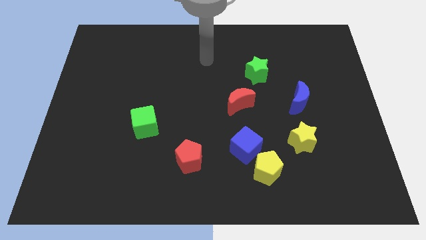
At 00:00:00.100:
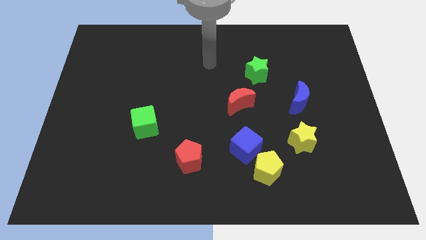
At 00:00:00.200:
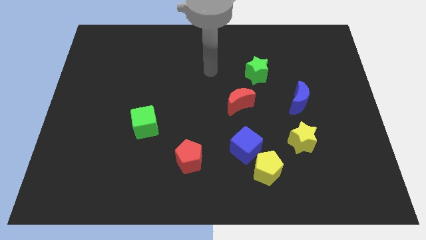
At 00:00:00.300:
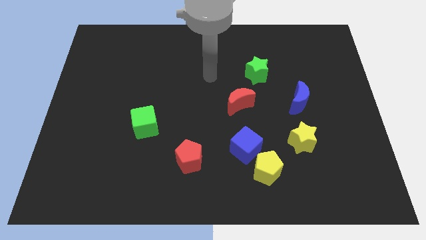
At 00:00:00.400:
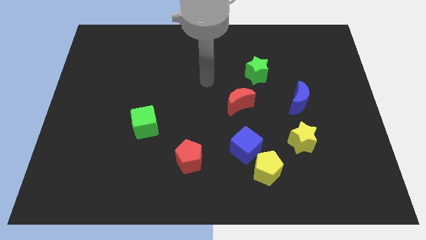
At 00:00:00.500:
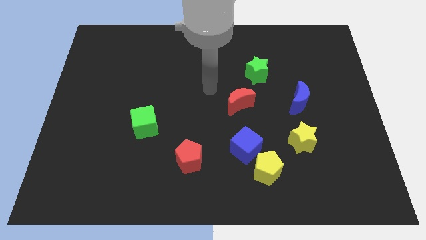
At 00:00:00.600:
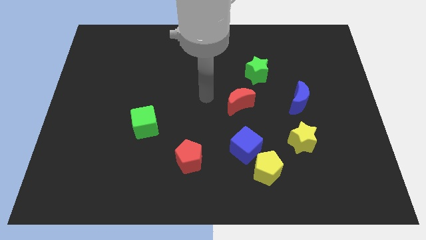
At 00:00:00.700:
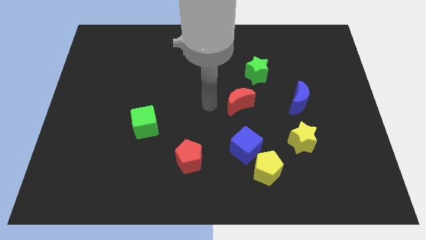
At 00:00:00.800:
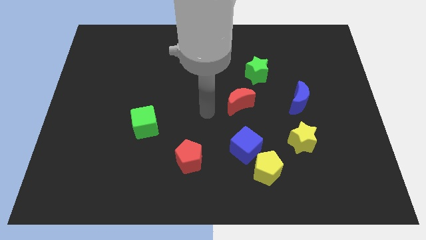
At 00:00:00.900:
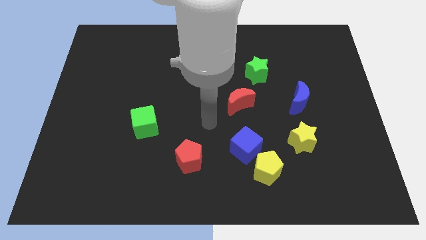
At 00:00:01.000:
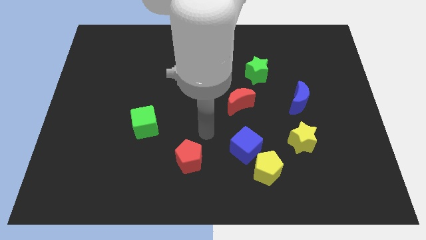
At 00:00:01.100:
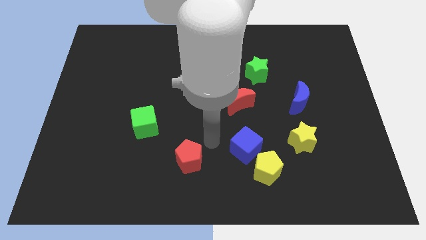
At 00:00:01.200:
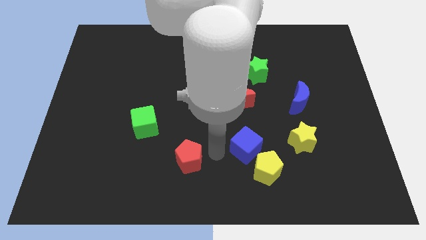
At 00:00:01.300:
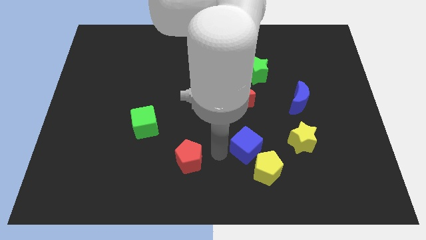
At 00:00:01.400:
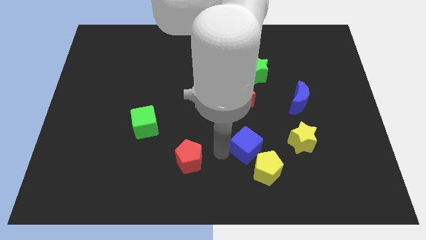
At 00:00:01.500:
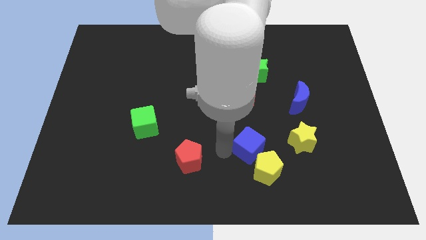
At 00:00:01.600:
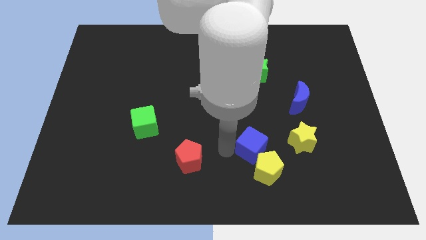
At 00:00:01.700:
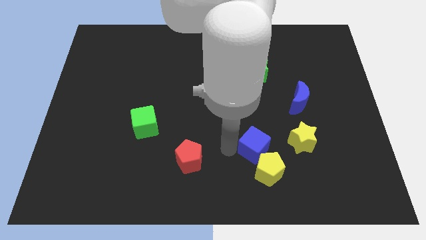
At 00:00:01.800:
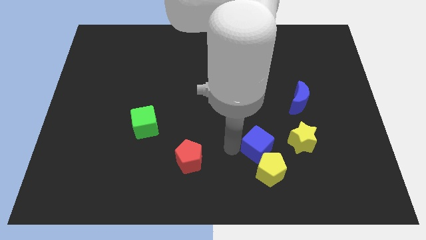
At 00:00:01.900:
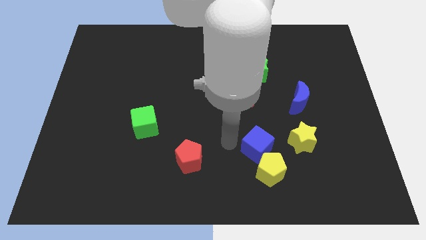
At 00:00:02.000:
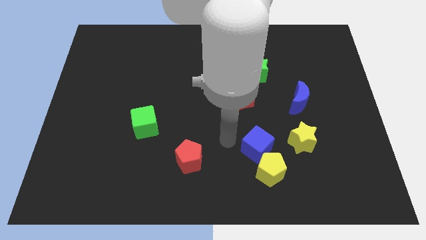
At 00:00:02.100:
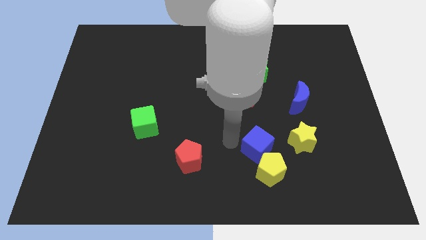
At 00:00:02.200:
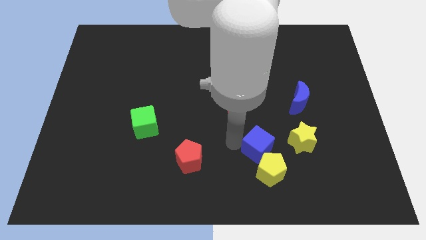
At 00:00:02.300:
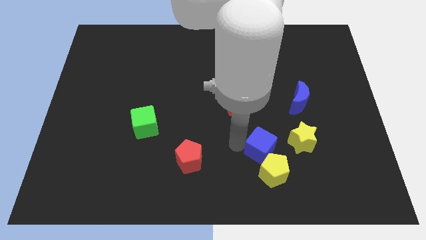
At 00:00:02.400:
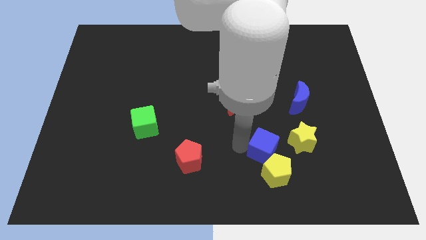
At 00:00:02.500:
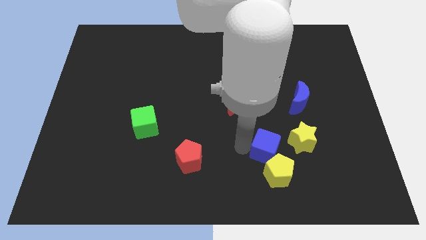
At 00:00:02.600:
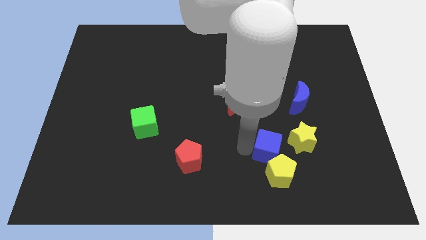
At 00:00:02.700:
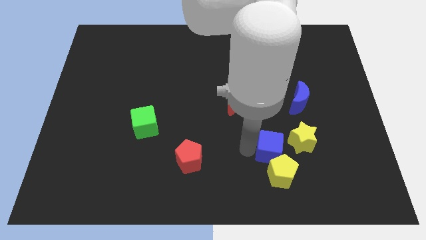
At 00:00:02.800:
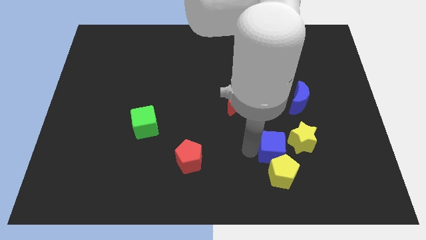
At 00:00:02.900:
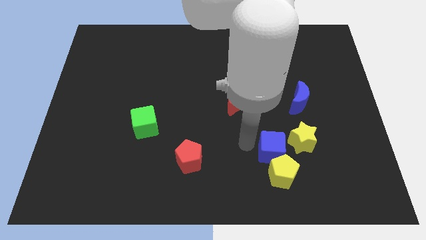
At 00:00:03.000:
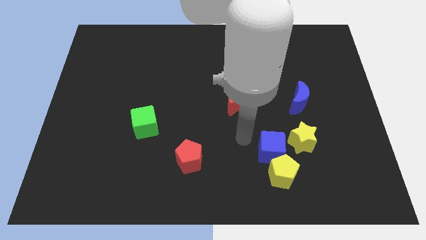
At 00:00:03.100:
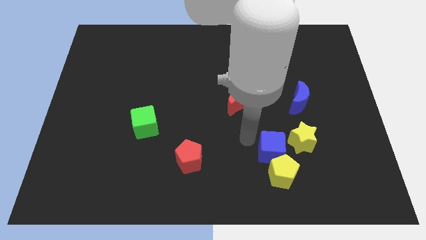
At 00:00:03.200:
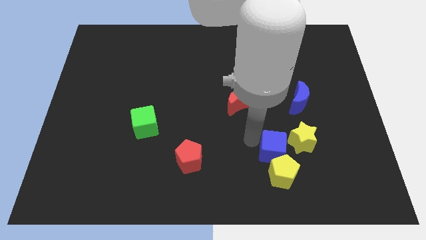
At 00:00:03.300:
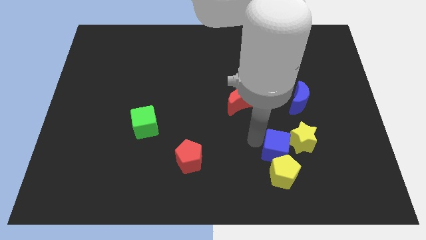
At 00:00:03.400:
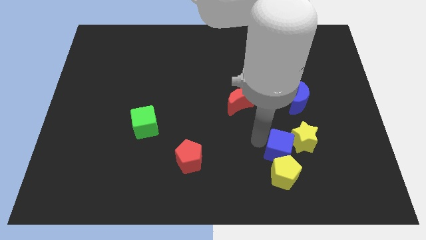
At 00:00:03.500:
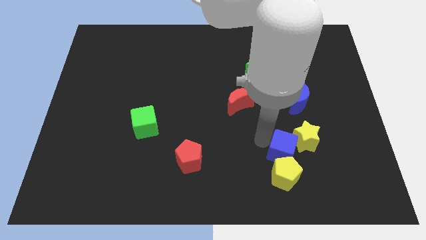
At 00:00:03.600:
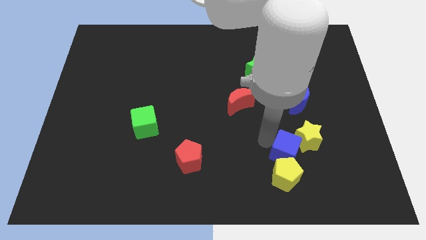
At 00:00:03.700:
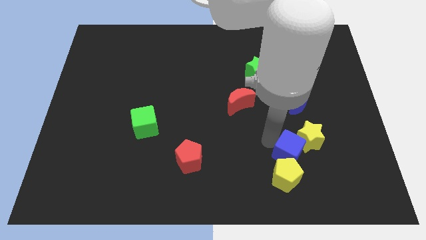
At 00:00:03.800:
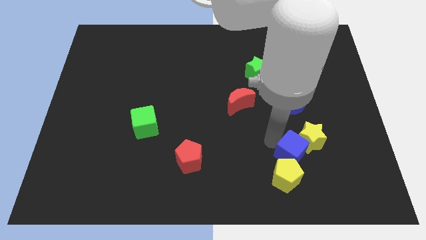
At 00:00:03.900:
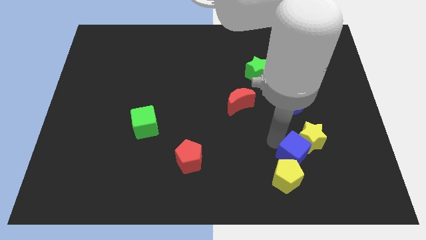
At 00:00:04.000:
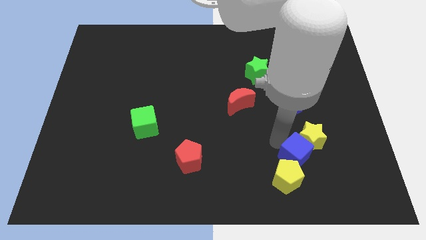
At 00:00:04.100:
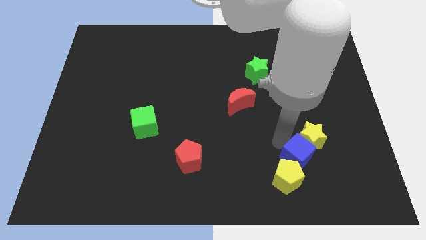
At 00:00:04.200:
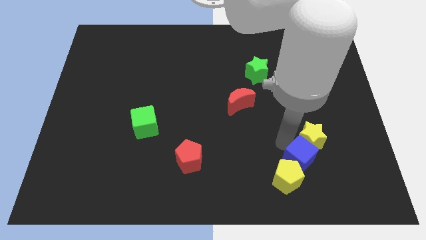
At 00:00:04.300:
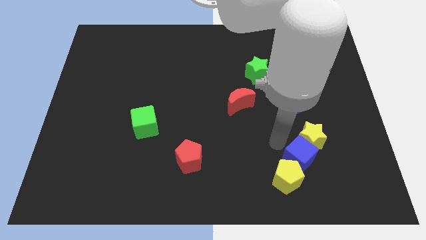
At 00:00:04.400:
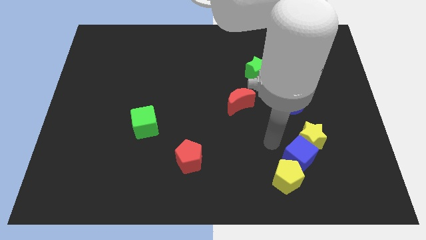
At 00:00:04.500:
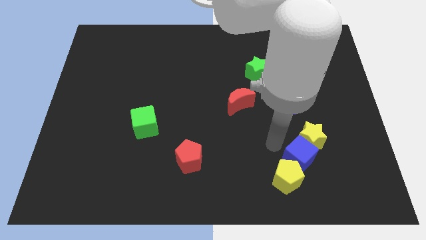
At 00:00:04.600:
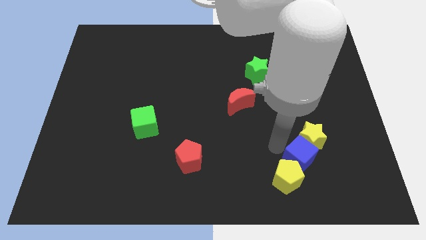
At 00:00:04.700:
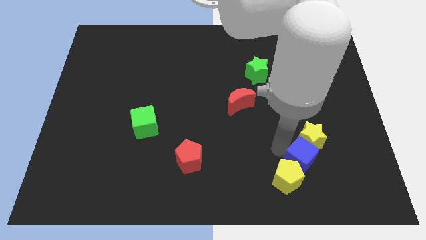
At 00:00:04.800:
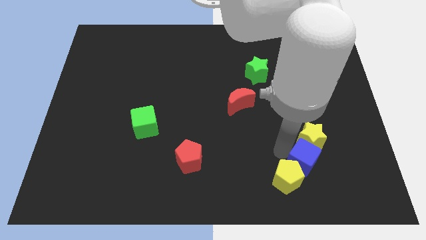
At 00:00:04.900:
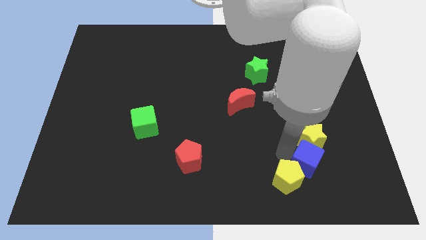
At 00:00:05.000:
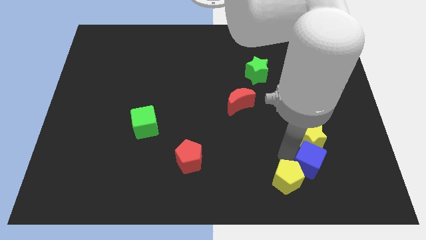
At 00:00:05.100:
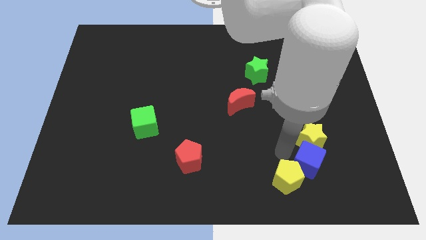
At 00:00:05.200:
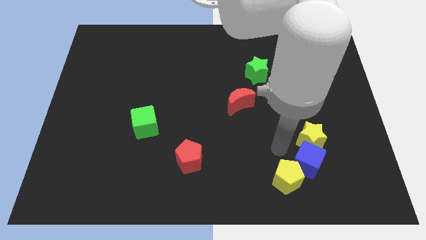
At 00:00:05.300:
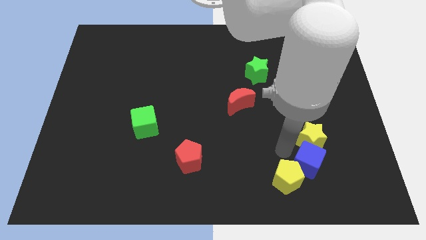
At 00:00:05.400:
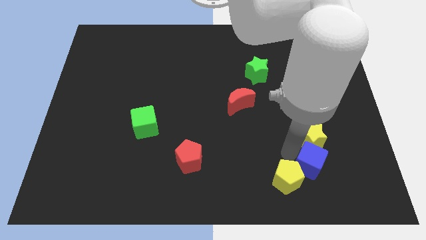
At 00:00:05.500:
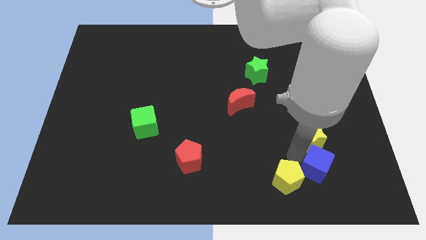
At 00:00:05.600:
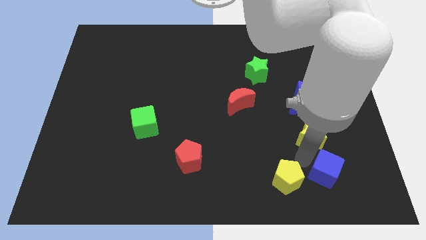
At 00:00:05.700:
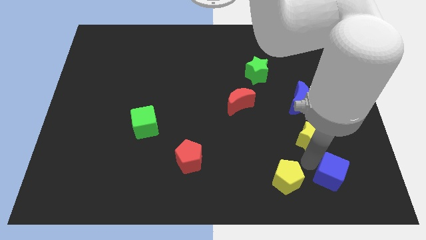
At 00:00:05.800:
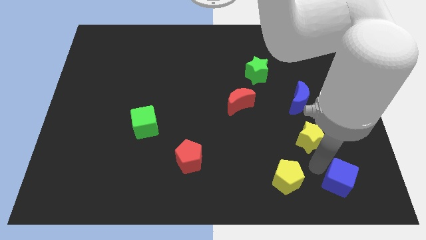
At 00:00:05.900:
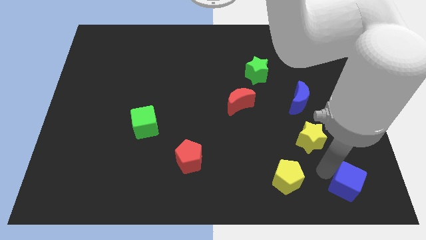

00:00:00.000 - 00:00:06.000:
slide the blue cube to the lower right corner
